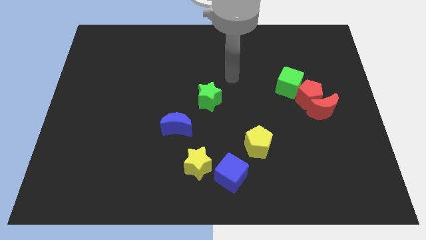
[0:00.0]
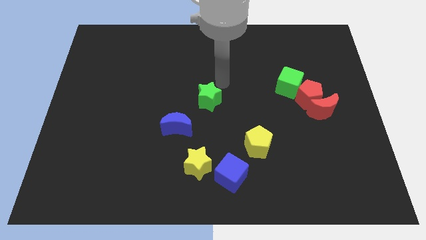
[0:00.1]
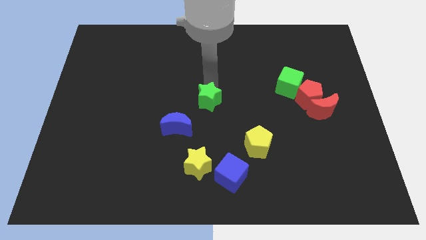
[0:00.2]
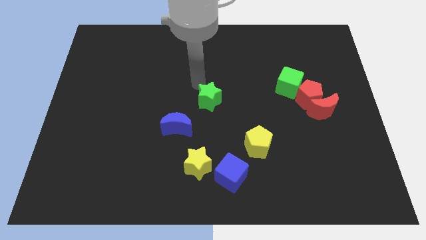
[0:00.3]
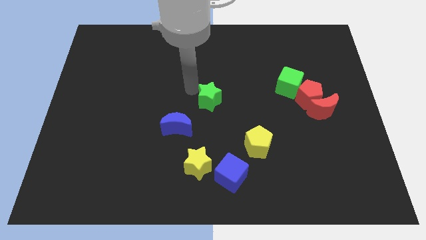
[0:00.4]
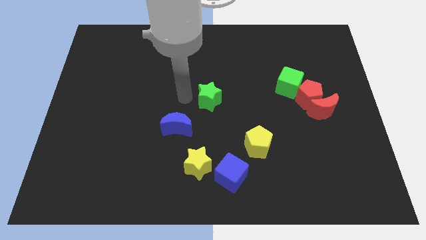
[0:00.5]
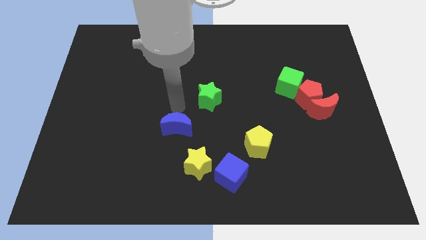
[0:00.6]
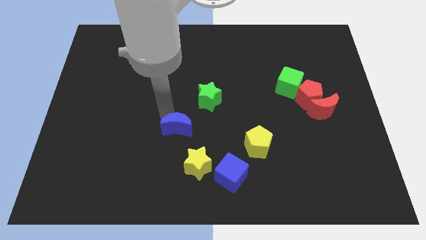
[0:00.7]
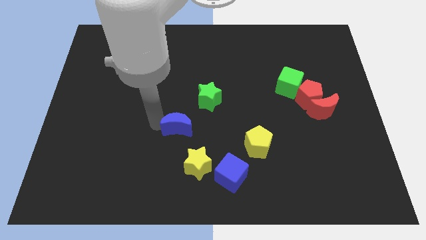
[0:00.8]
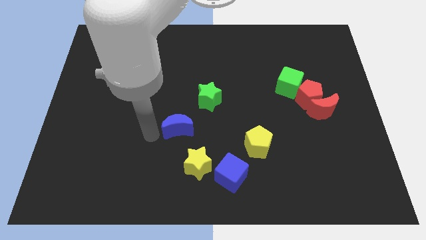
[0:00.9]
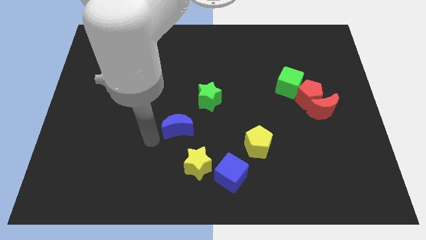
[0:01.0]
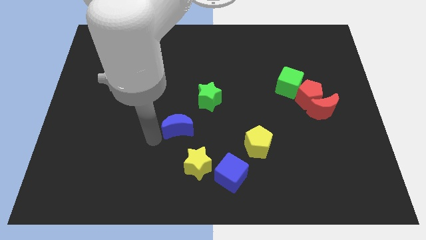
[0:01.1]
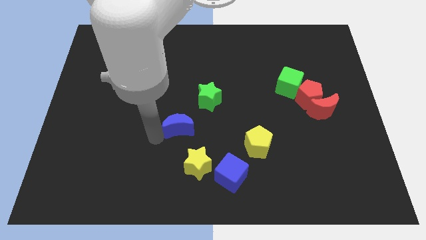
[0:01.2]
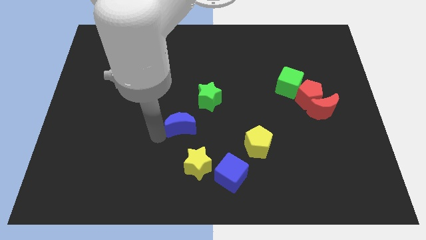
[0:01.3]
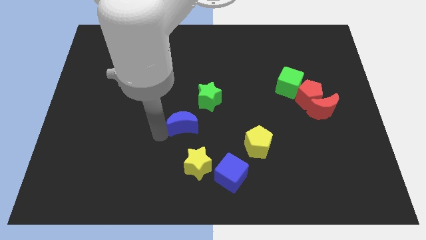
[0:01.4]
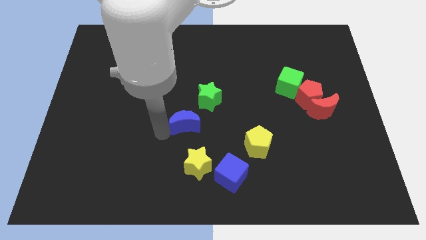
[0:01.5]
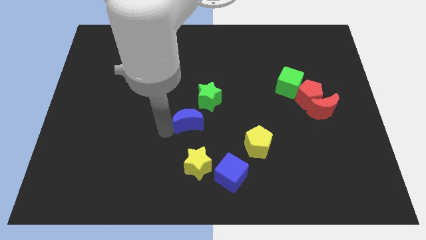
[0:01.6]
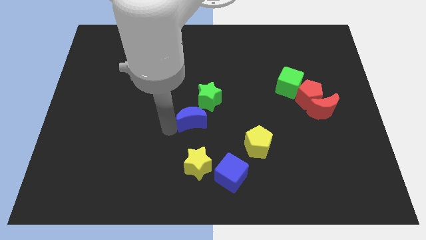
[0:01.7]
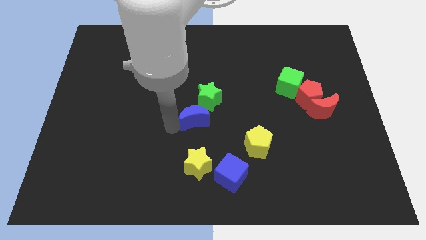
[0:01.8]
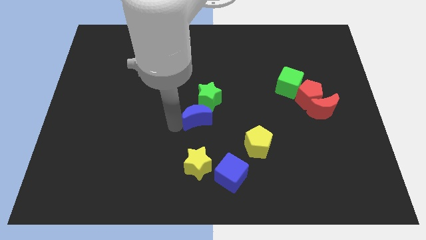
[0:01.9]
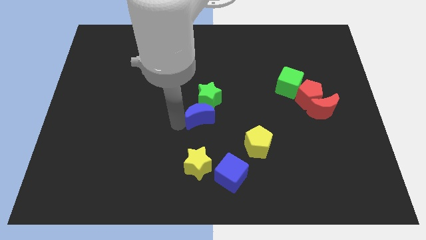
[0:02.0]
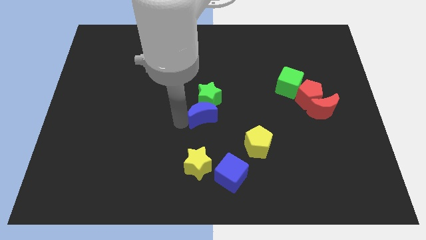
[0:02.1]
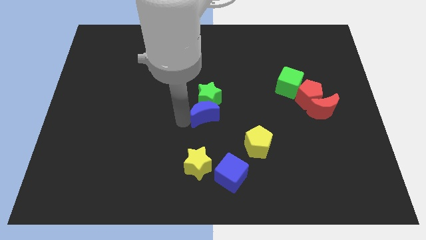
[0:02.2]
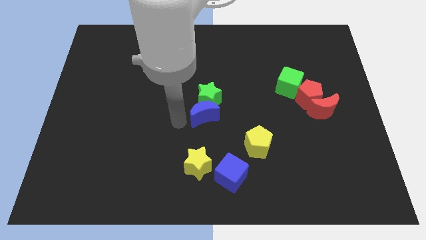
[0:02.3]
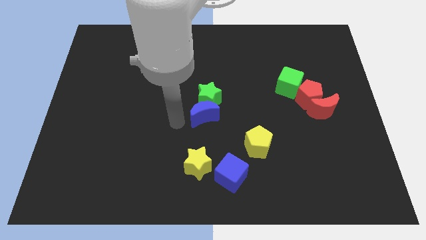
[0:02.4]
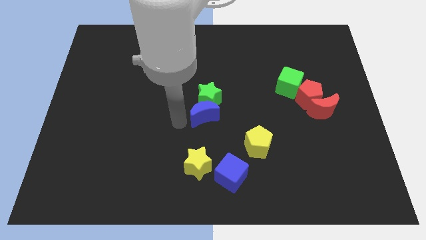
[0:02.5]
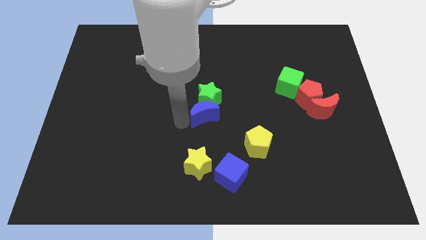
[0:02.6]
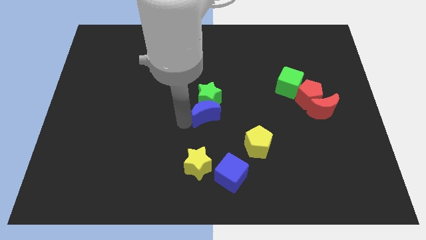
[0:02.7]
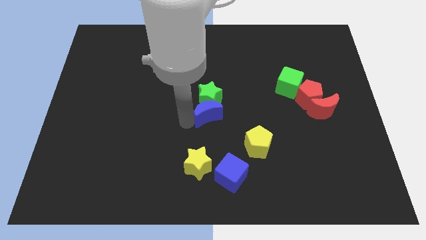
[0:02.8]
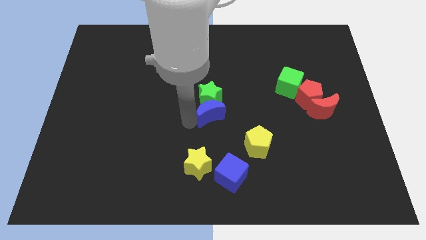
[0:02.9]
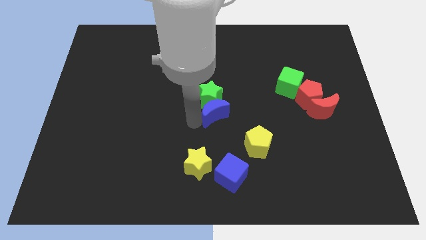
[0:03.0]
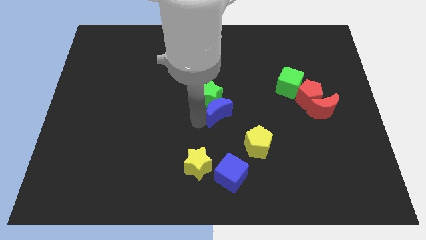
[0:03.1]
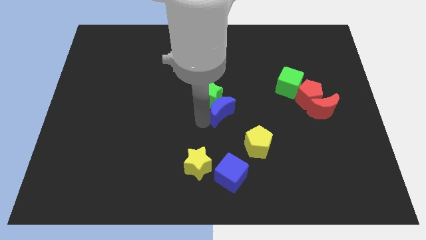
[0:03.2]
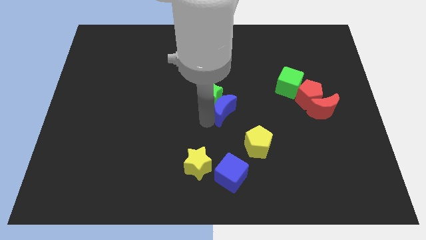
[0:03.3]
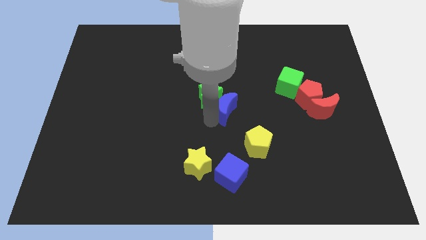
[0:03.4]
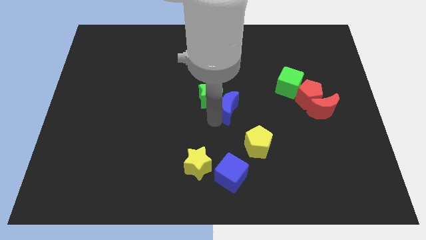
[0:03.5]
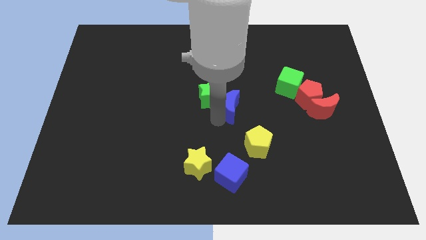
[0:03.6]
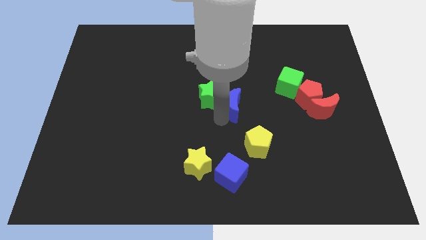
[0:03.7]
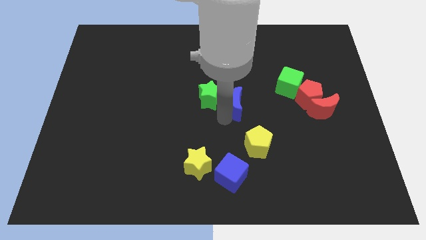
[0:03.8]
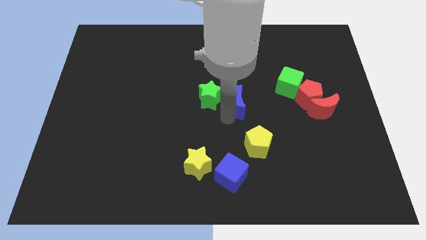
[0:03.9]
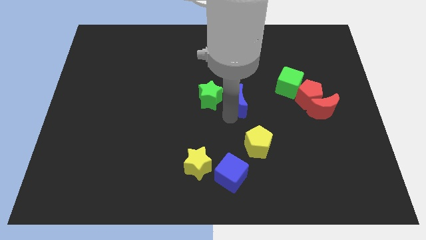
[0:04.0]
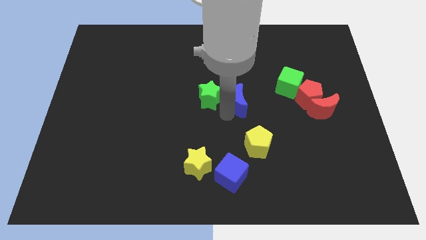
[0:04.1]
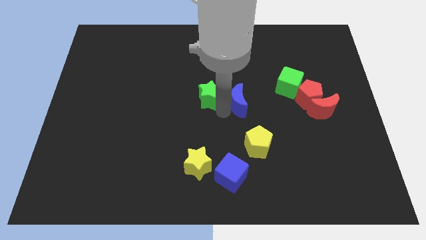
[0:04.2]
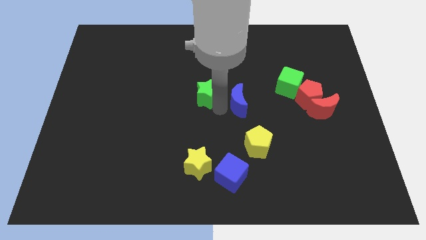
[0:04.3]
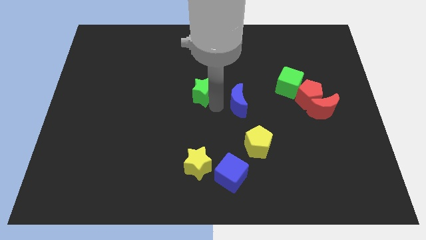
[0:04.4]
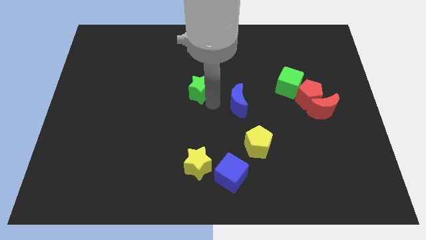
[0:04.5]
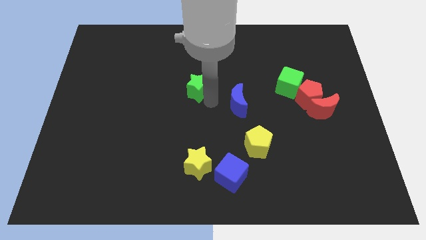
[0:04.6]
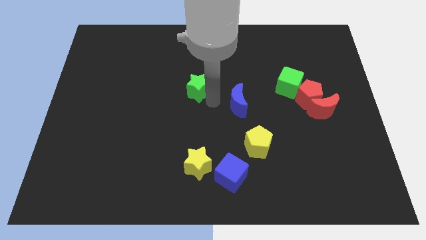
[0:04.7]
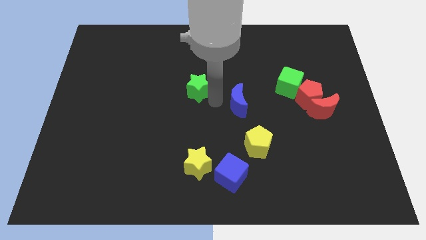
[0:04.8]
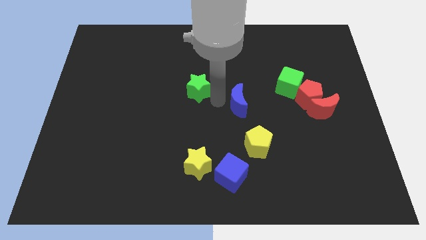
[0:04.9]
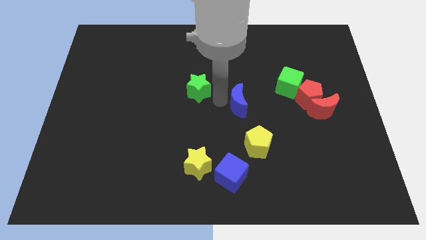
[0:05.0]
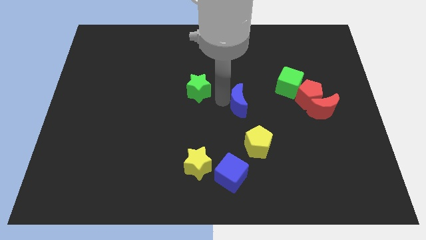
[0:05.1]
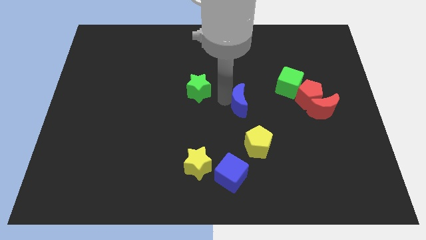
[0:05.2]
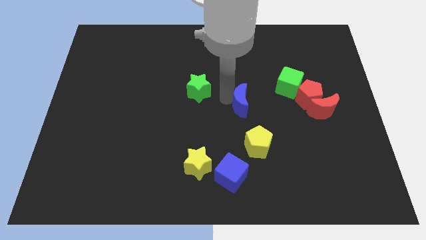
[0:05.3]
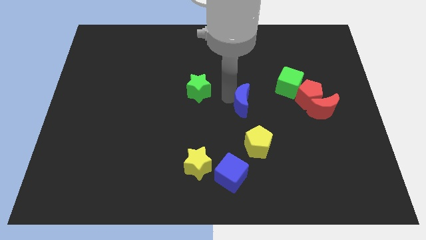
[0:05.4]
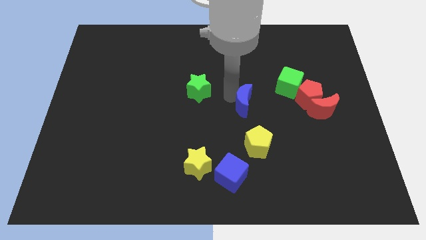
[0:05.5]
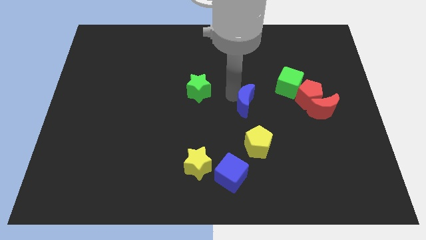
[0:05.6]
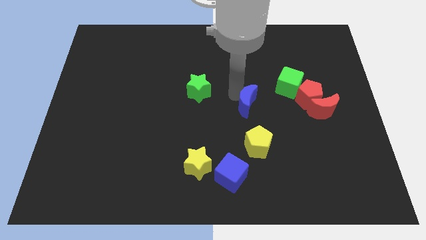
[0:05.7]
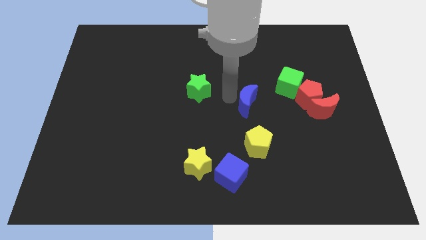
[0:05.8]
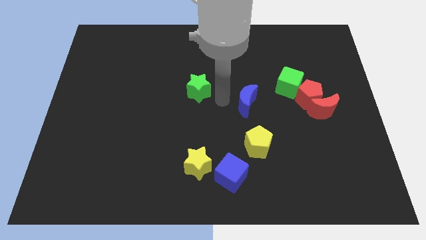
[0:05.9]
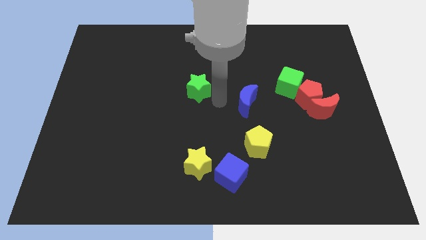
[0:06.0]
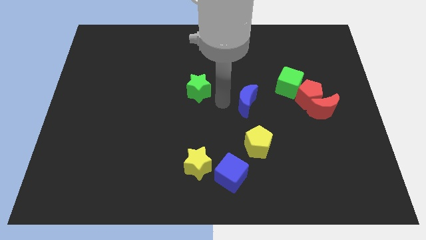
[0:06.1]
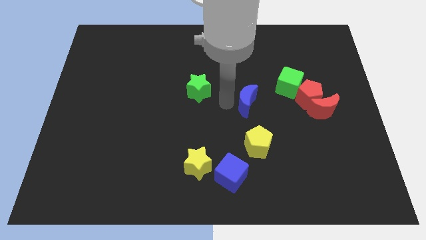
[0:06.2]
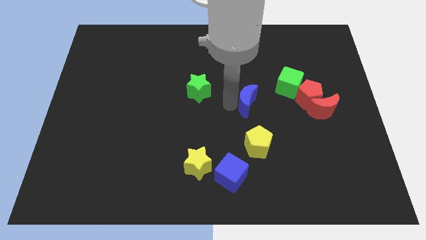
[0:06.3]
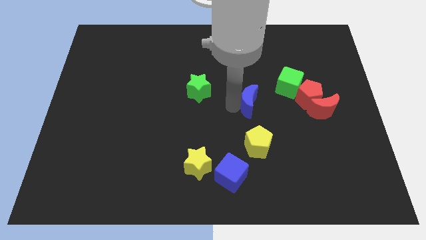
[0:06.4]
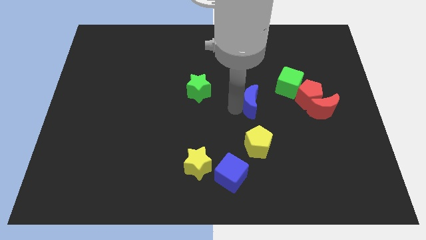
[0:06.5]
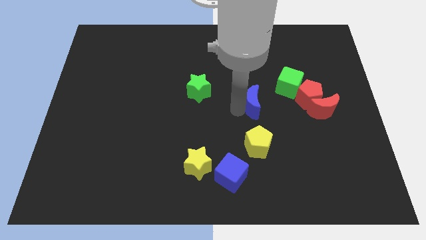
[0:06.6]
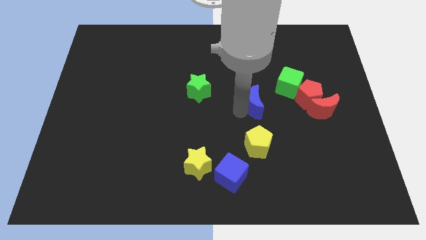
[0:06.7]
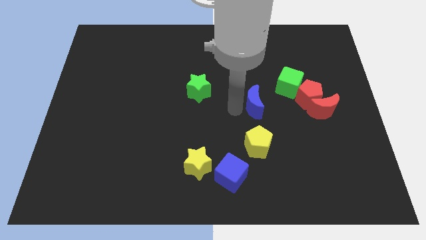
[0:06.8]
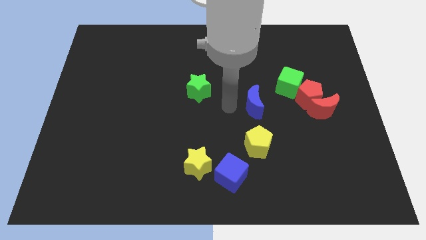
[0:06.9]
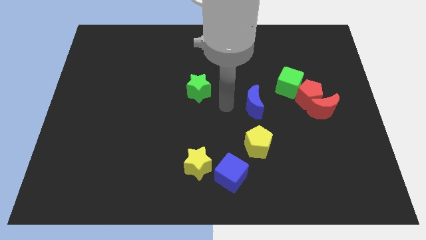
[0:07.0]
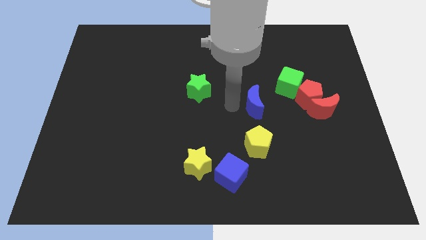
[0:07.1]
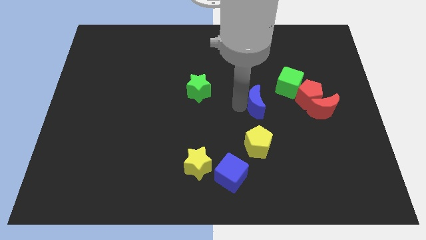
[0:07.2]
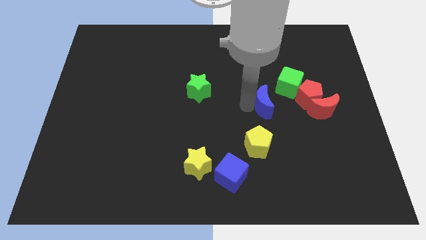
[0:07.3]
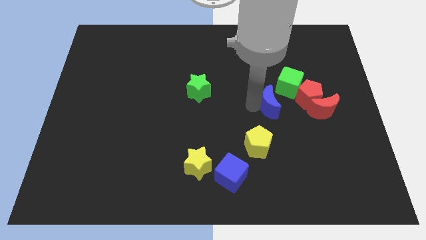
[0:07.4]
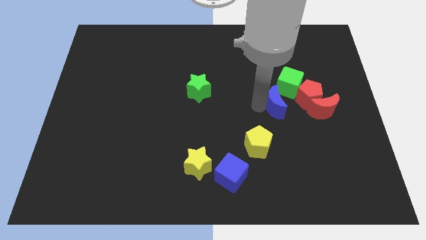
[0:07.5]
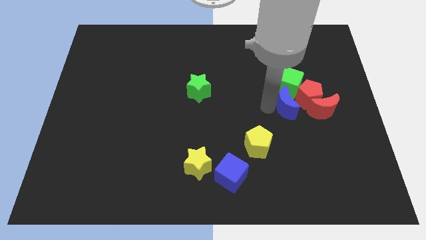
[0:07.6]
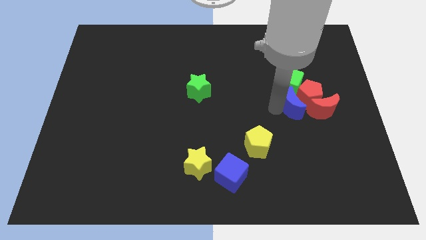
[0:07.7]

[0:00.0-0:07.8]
move the blue moon to the red pentagon
